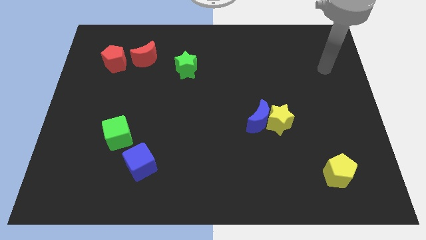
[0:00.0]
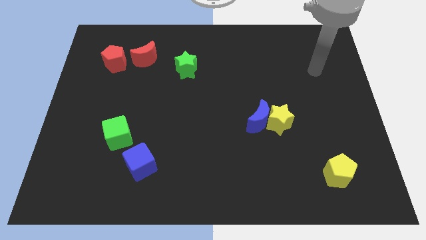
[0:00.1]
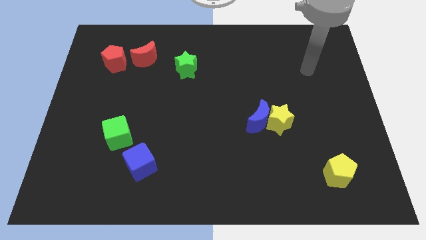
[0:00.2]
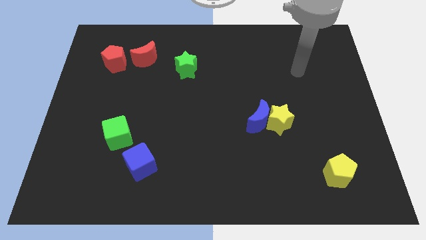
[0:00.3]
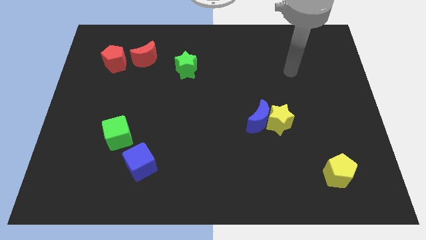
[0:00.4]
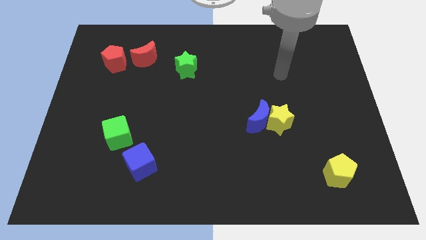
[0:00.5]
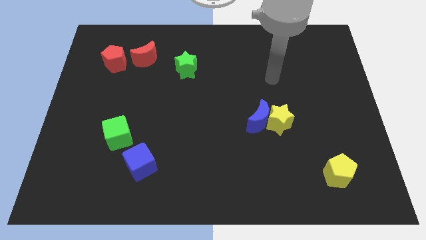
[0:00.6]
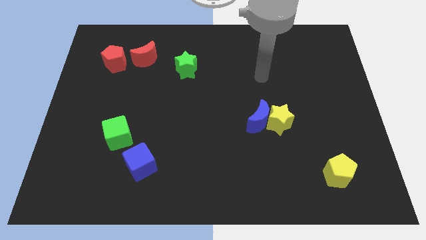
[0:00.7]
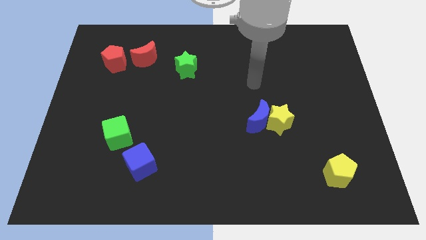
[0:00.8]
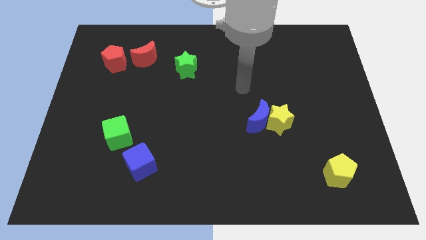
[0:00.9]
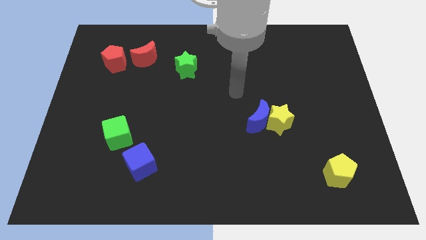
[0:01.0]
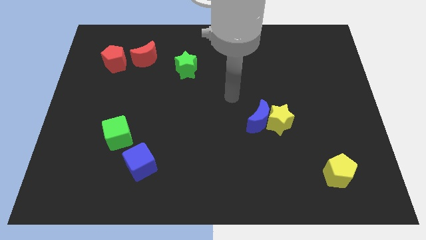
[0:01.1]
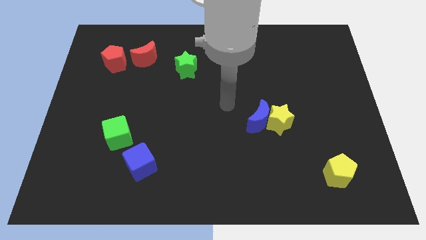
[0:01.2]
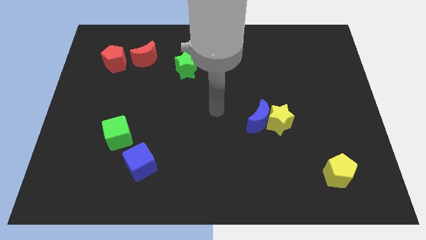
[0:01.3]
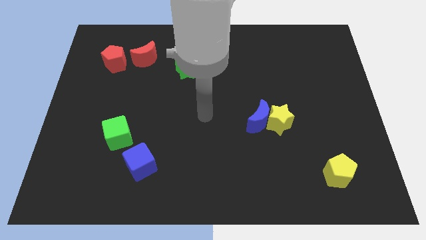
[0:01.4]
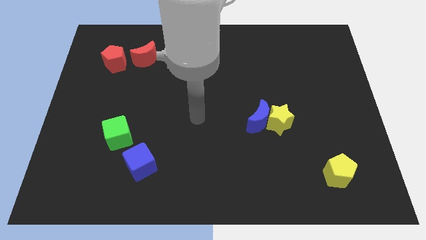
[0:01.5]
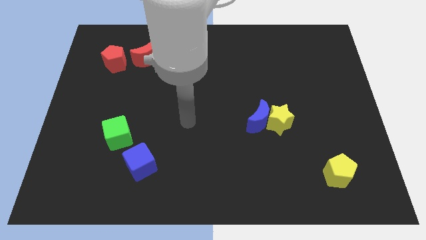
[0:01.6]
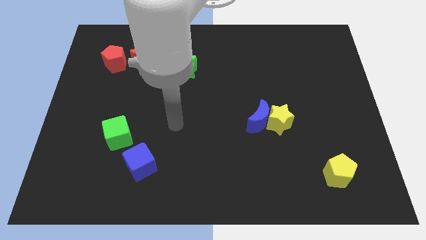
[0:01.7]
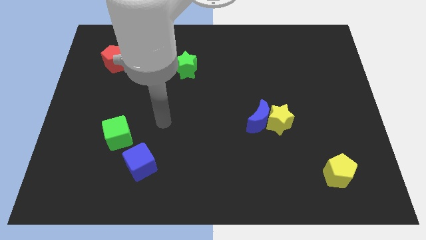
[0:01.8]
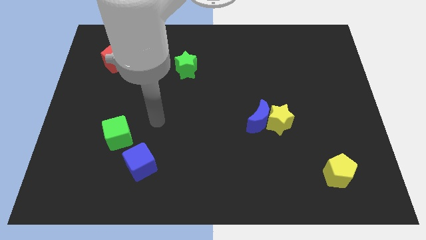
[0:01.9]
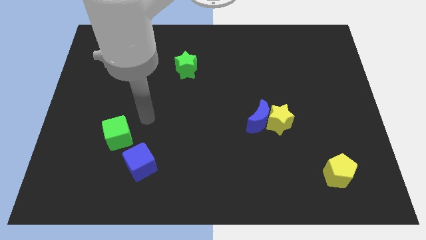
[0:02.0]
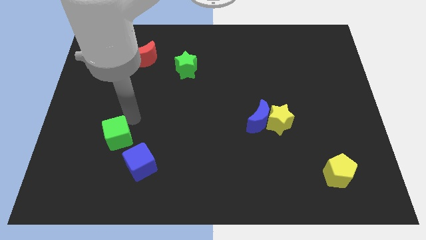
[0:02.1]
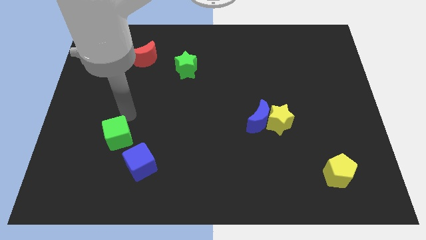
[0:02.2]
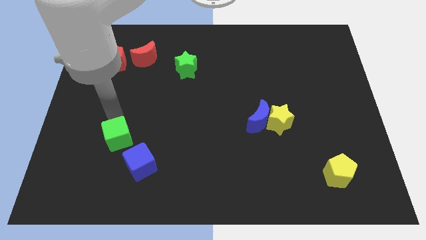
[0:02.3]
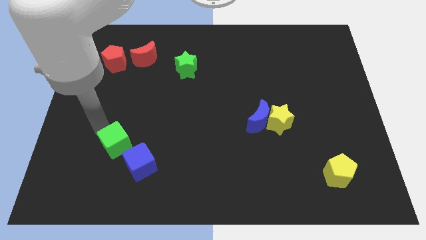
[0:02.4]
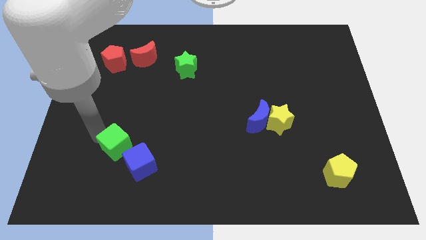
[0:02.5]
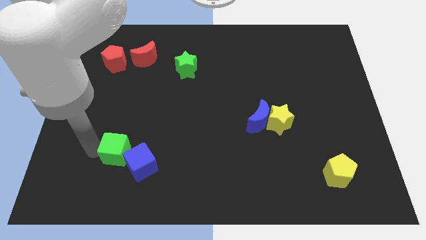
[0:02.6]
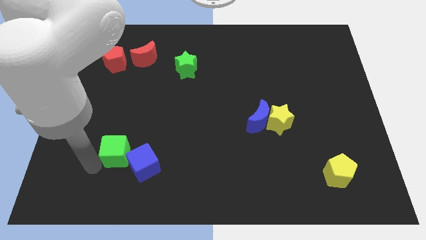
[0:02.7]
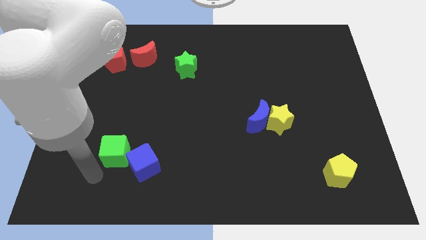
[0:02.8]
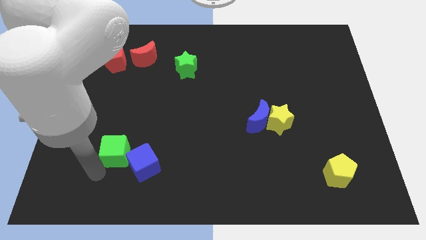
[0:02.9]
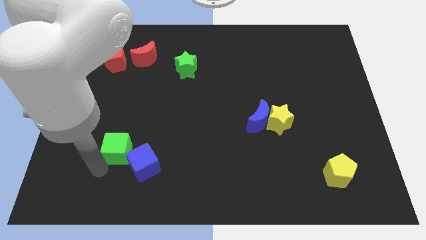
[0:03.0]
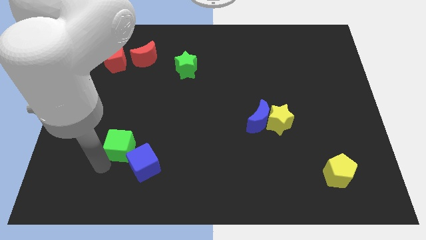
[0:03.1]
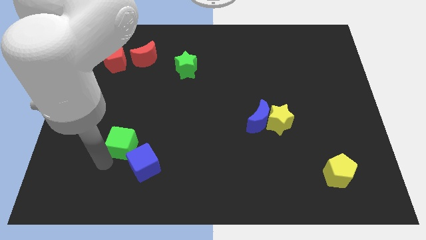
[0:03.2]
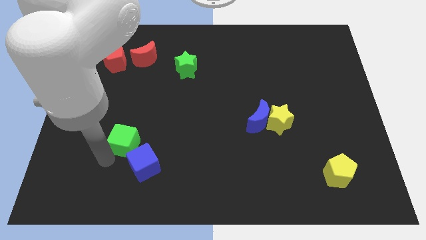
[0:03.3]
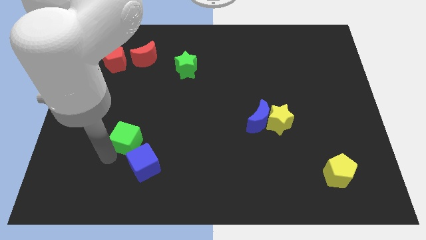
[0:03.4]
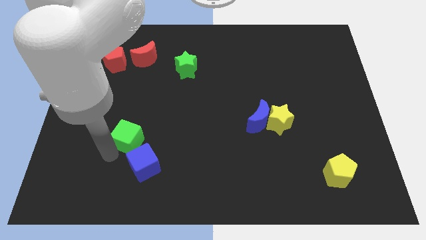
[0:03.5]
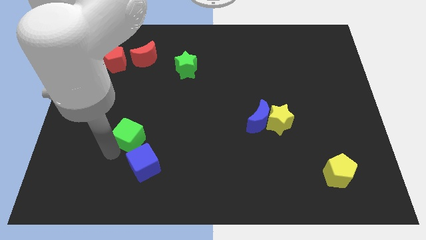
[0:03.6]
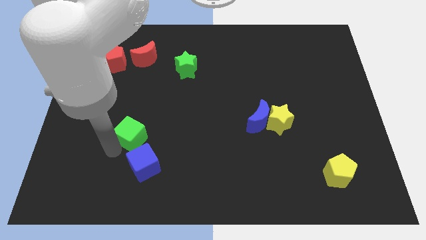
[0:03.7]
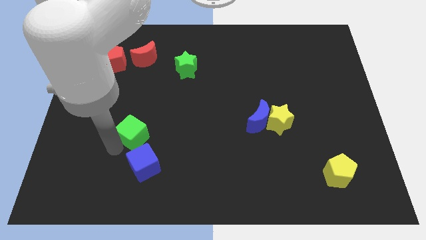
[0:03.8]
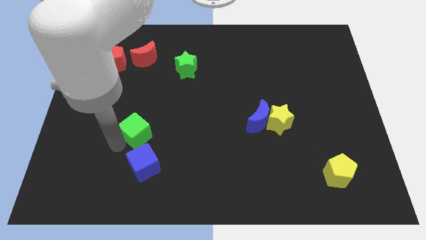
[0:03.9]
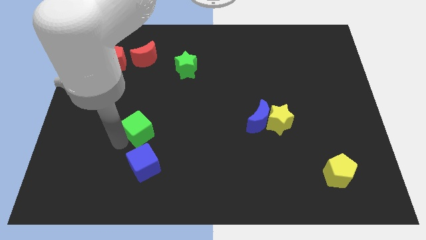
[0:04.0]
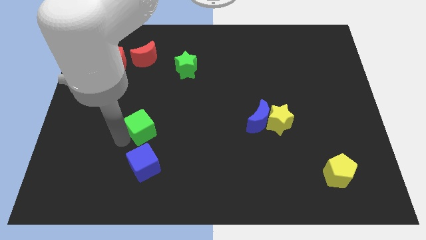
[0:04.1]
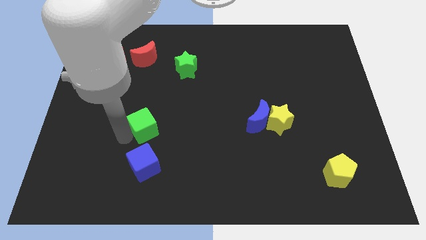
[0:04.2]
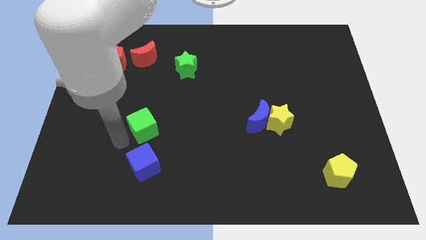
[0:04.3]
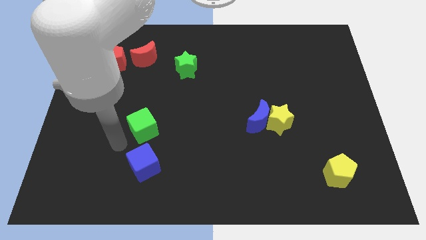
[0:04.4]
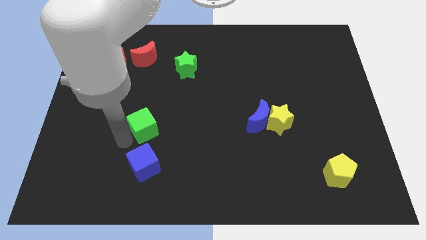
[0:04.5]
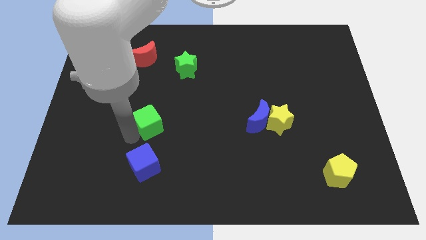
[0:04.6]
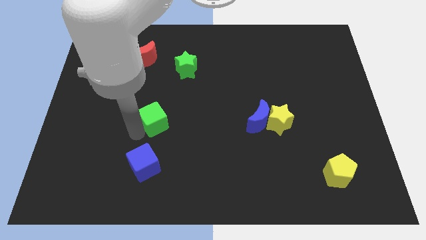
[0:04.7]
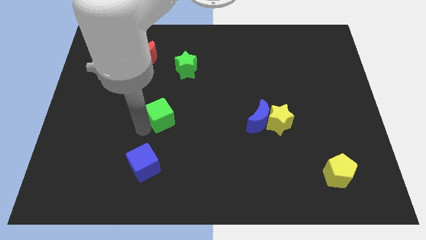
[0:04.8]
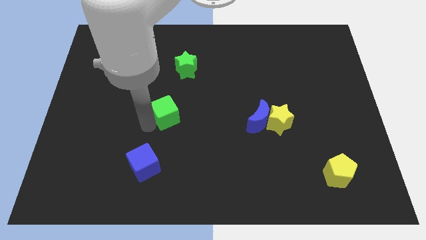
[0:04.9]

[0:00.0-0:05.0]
put the green cube to the middle of the board

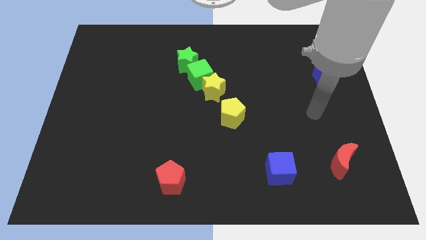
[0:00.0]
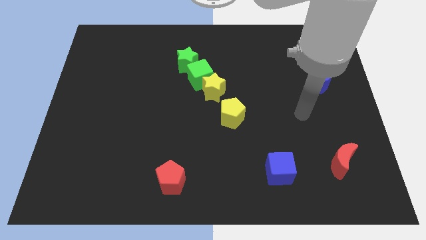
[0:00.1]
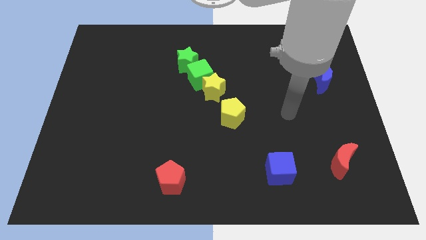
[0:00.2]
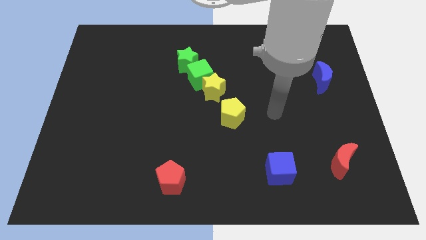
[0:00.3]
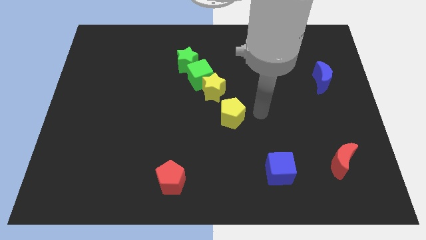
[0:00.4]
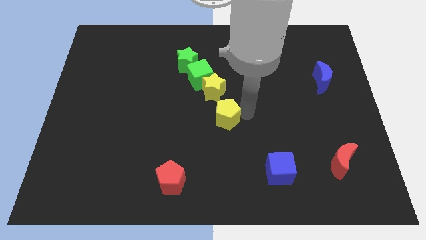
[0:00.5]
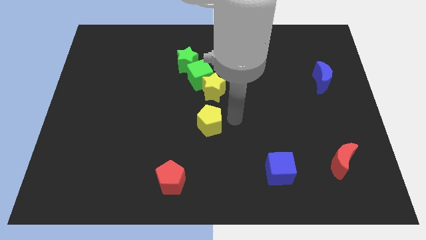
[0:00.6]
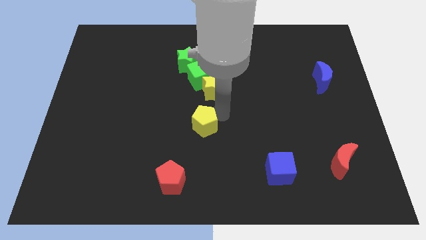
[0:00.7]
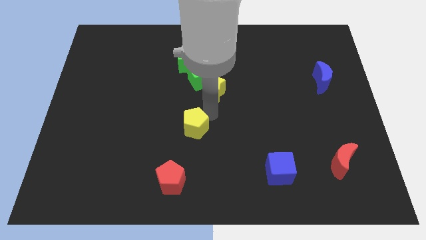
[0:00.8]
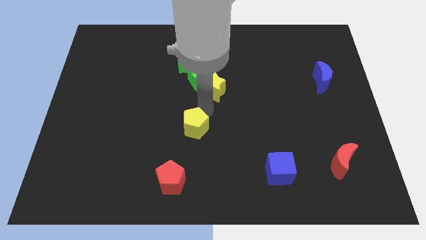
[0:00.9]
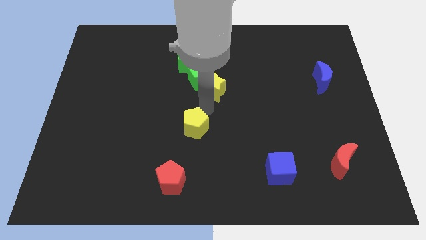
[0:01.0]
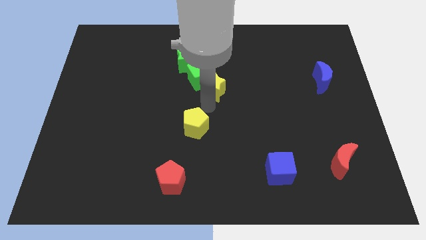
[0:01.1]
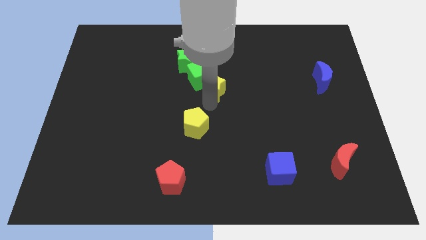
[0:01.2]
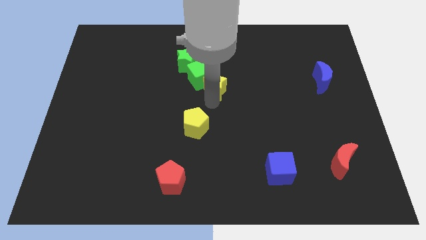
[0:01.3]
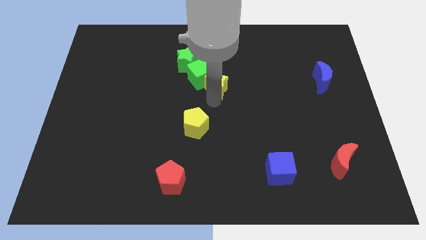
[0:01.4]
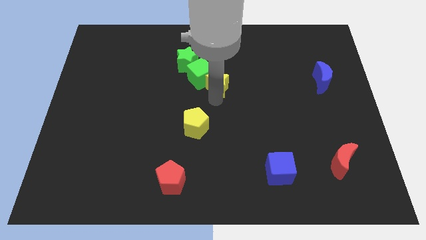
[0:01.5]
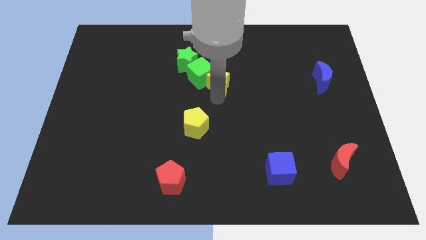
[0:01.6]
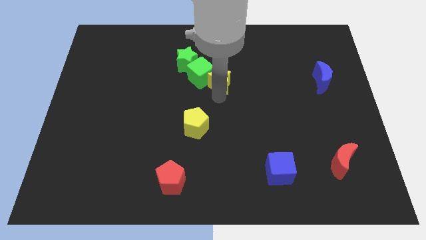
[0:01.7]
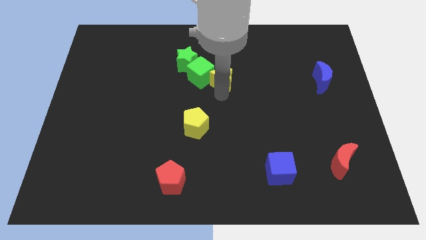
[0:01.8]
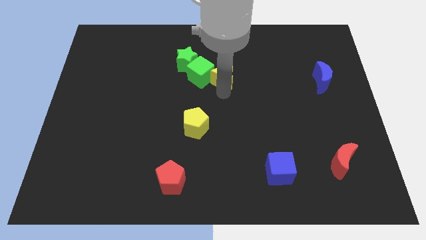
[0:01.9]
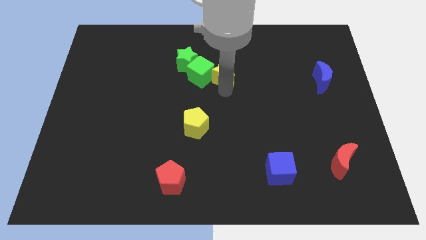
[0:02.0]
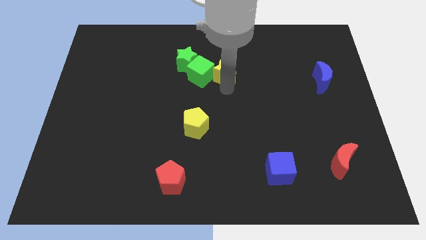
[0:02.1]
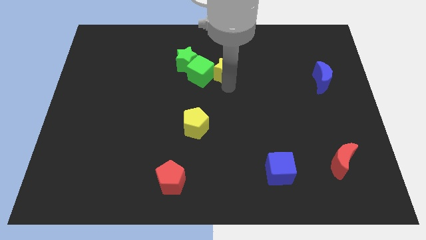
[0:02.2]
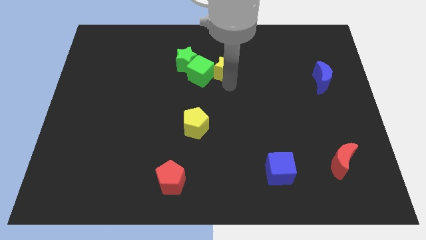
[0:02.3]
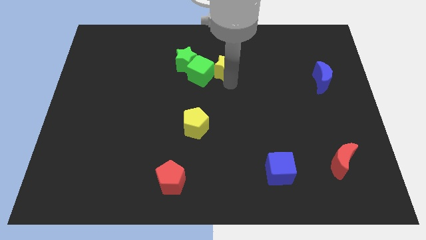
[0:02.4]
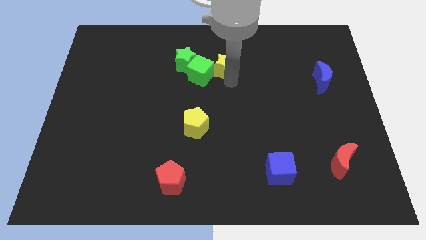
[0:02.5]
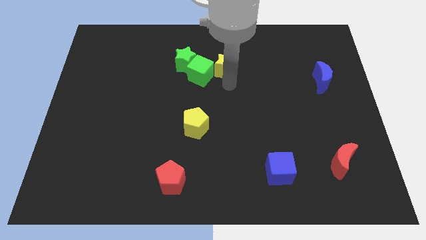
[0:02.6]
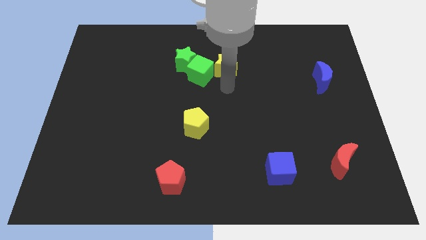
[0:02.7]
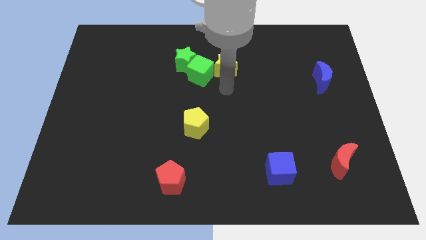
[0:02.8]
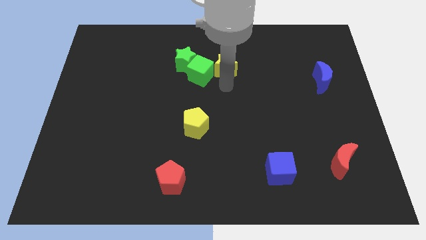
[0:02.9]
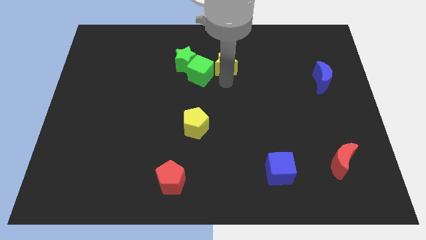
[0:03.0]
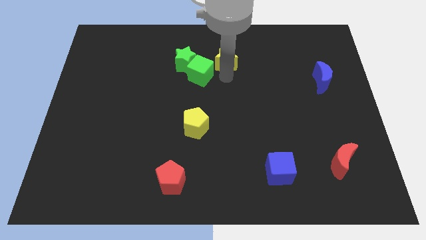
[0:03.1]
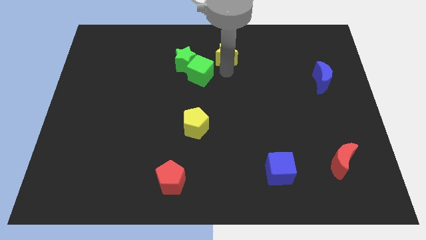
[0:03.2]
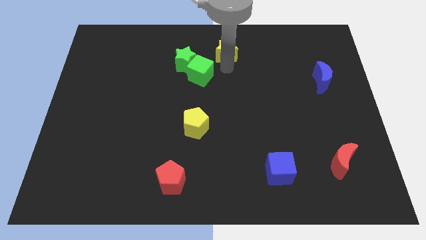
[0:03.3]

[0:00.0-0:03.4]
slide the yellow star to the top side
